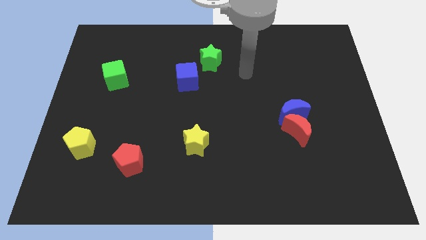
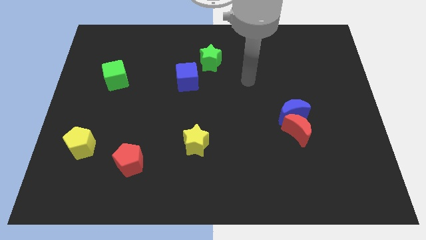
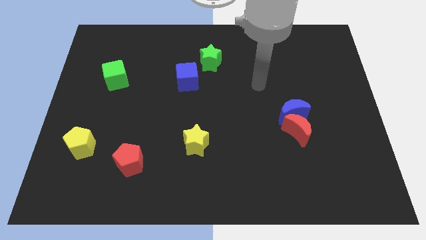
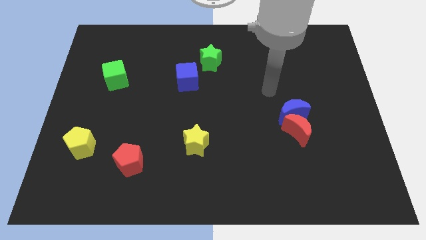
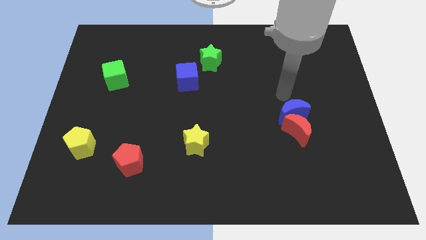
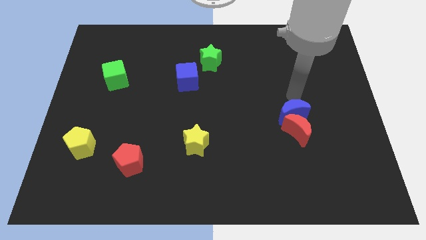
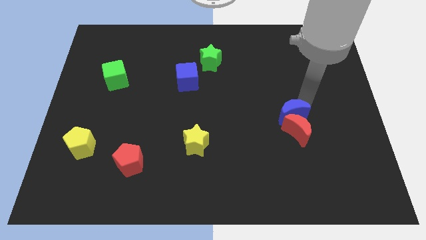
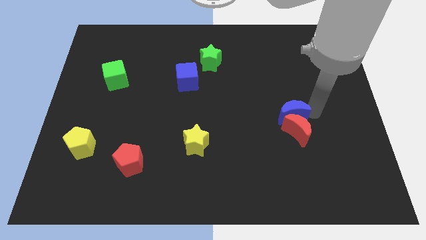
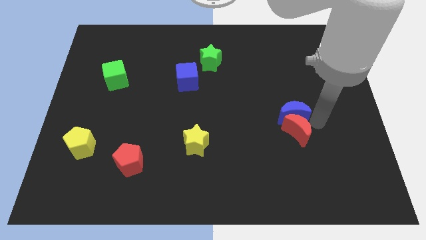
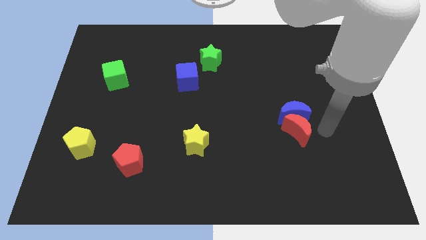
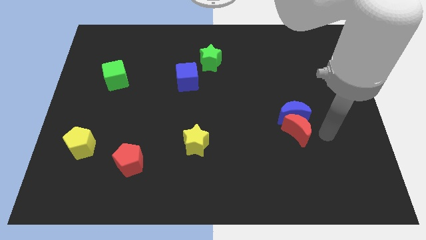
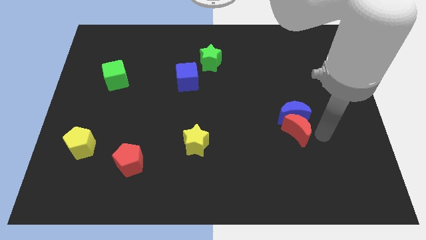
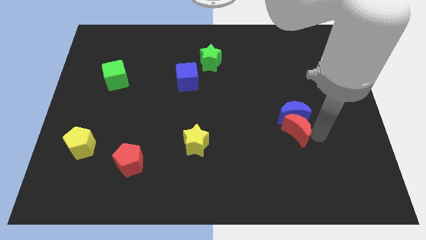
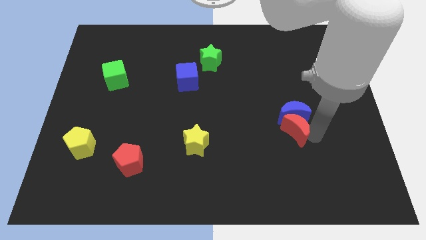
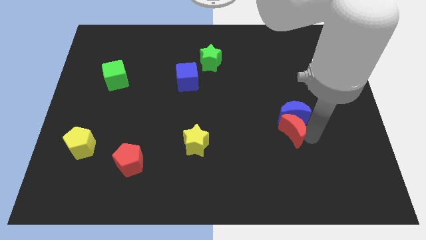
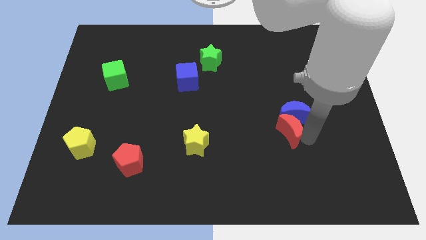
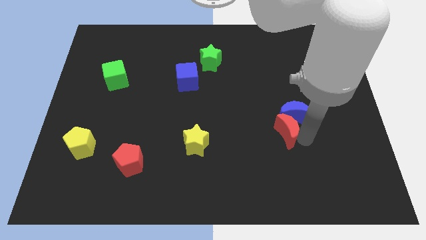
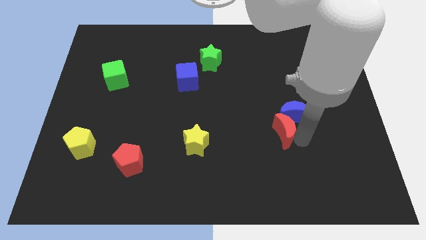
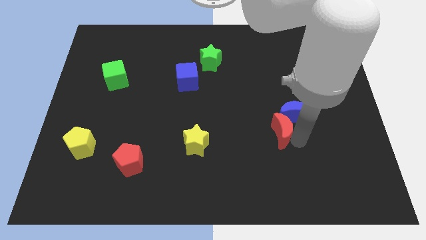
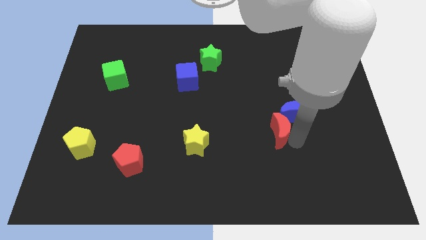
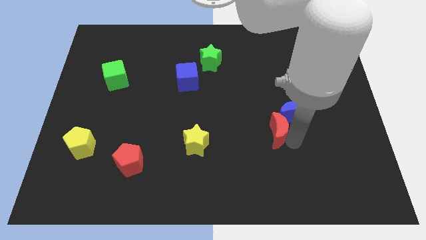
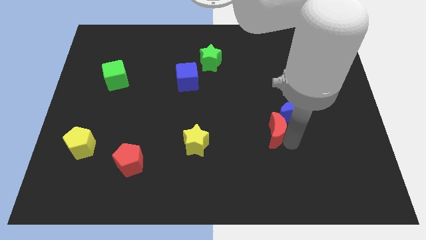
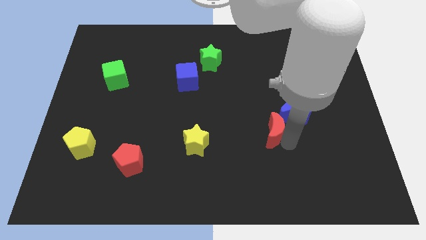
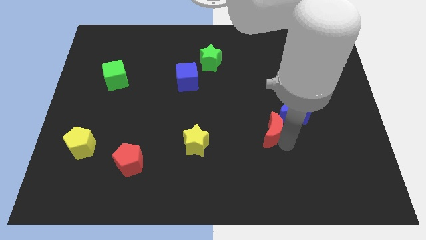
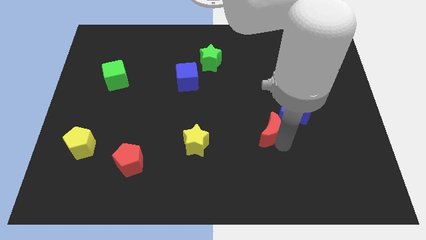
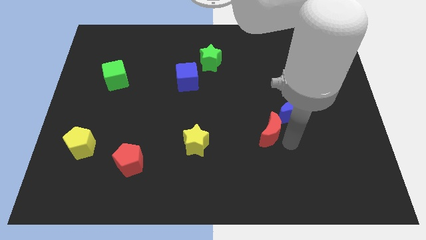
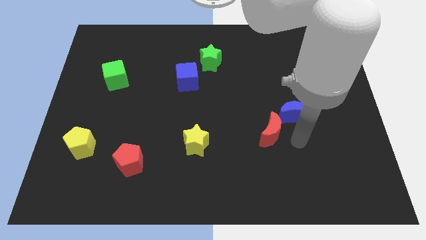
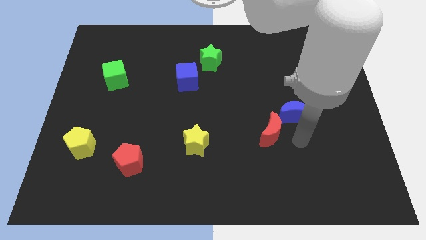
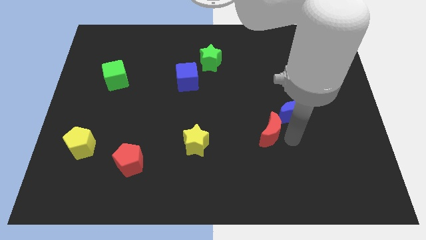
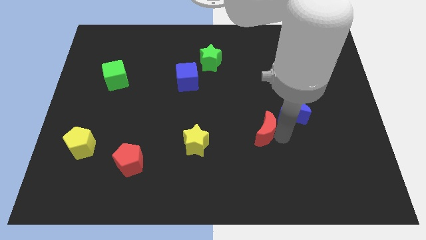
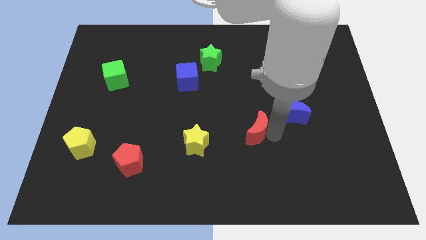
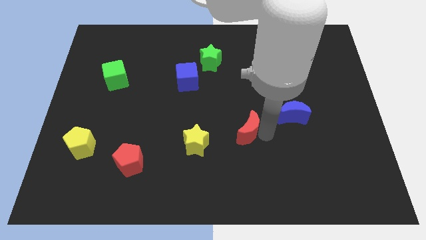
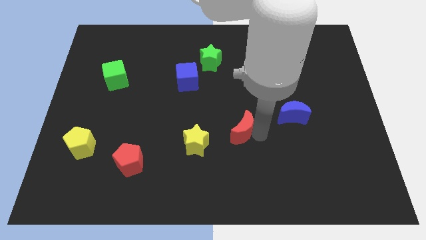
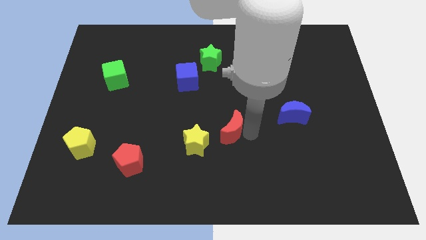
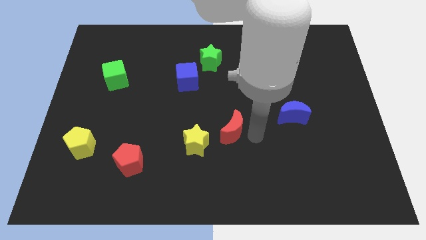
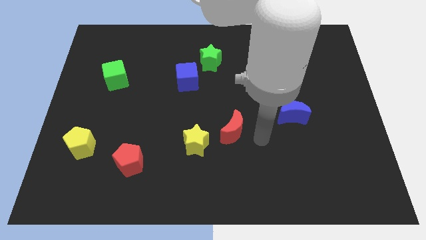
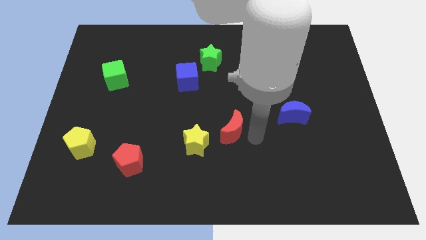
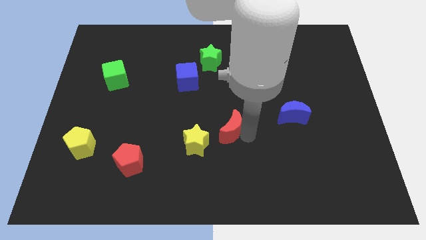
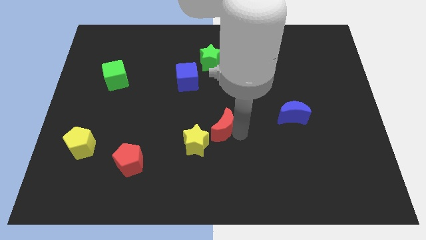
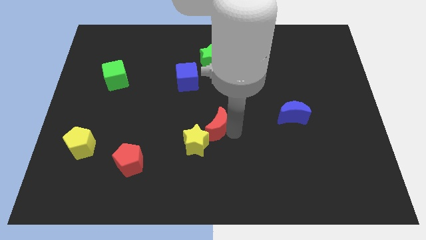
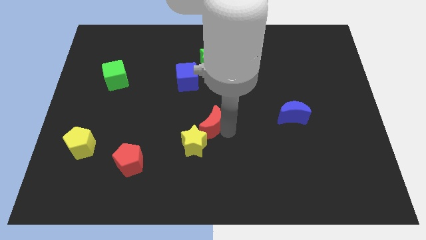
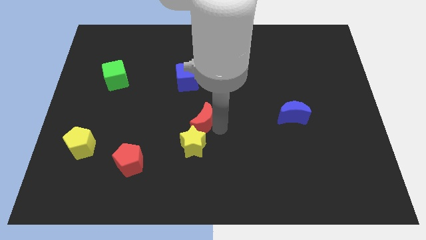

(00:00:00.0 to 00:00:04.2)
move the red moon to the left

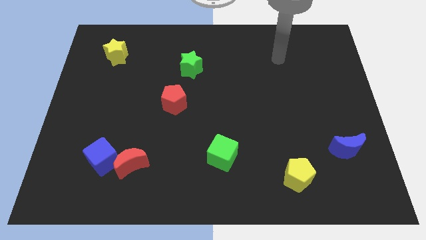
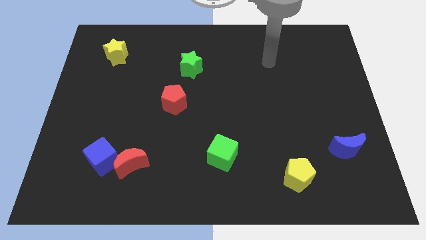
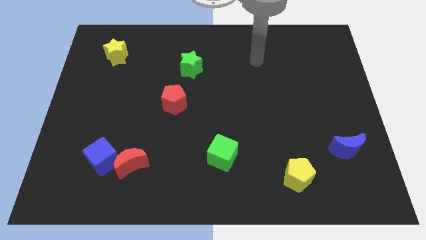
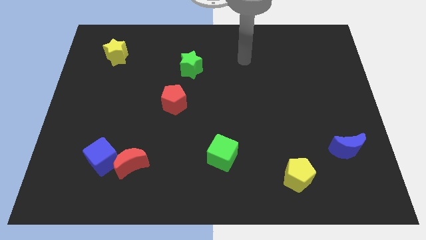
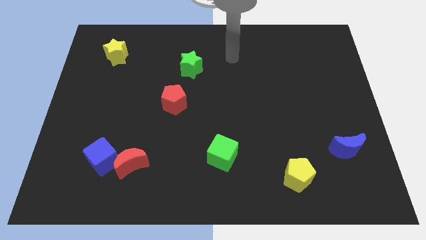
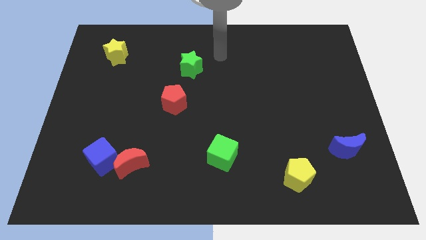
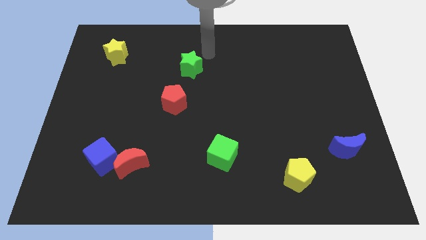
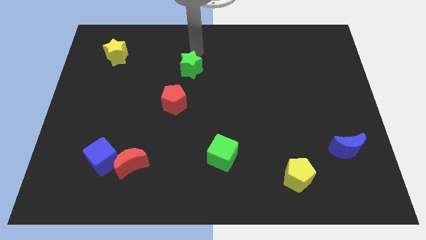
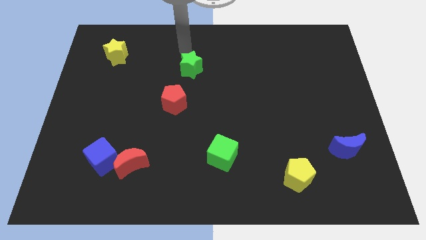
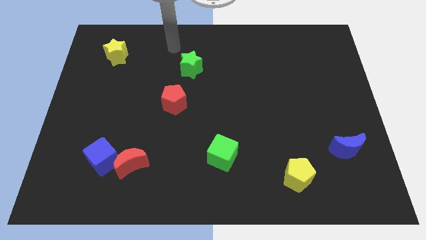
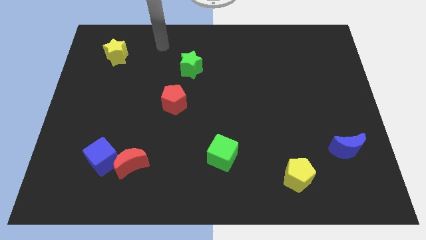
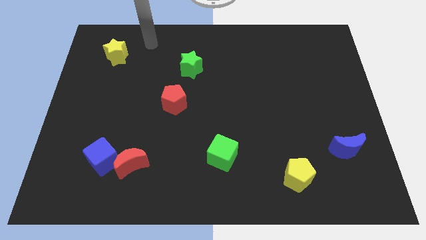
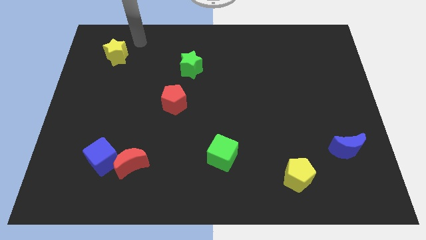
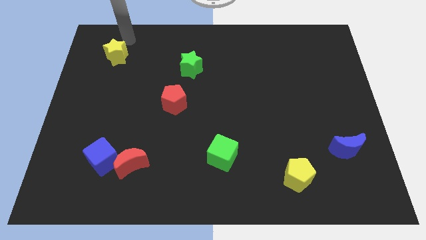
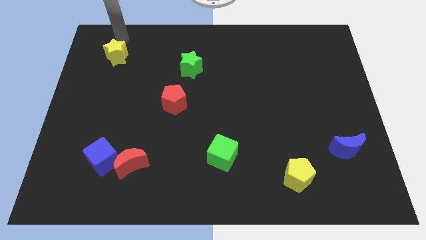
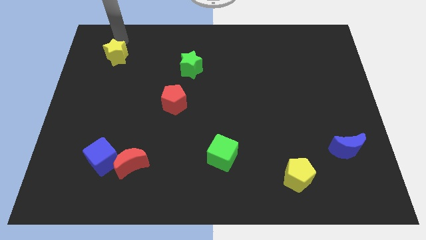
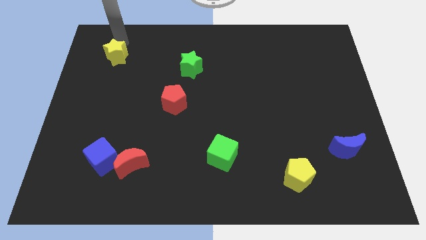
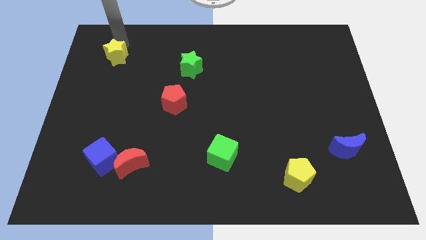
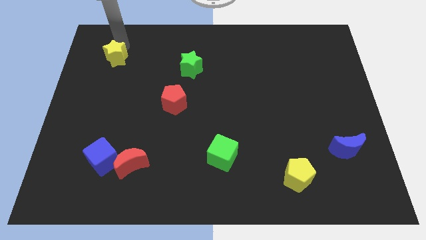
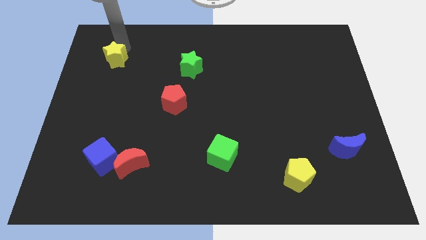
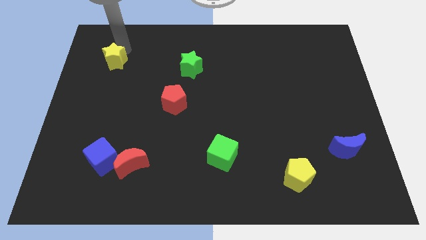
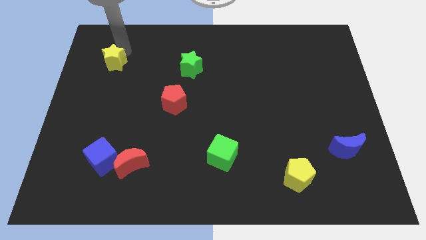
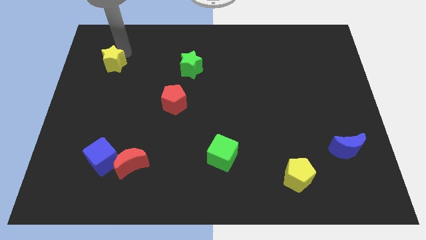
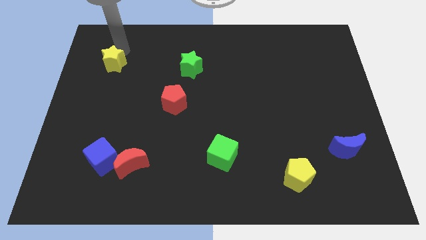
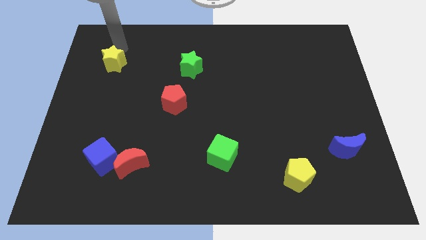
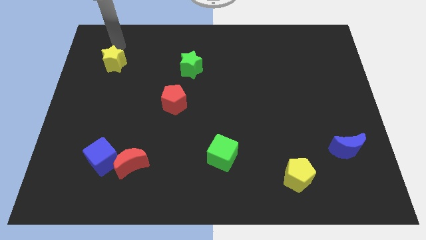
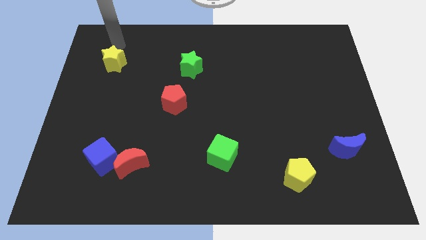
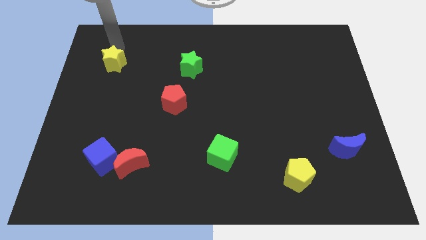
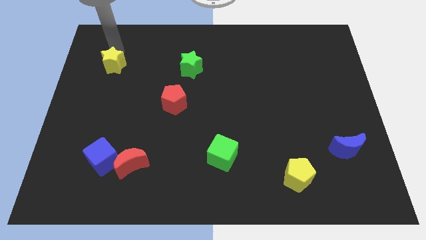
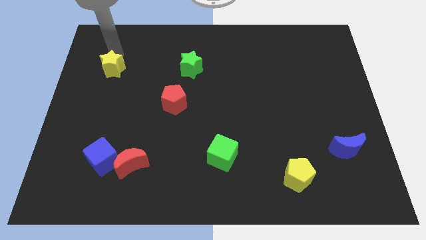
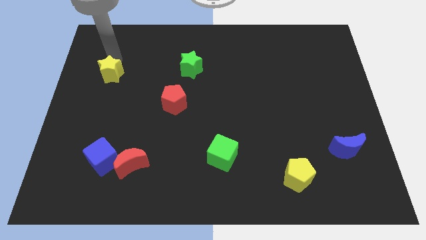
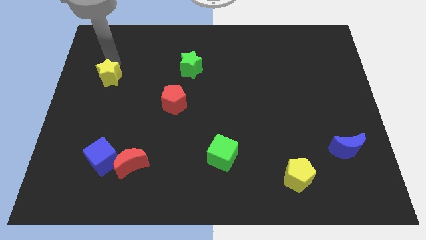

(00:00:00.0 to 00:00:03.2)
slide the yellow star downwards somewhat

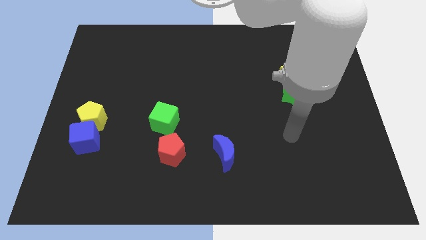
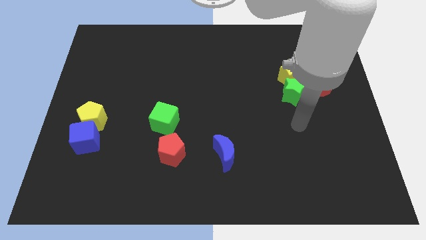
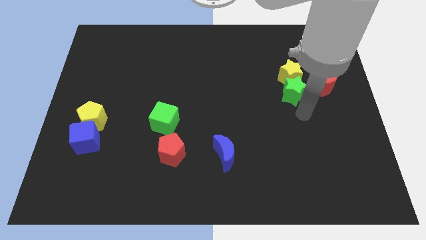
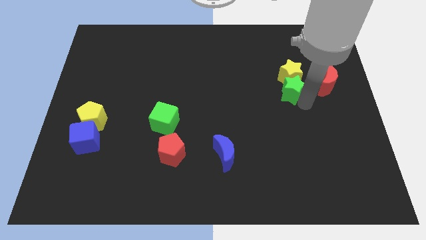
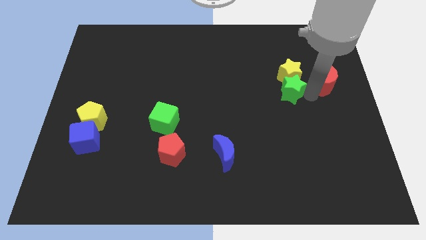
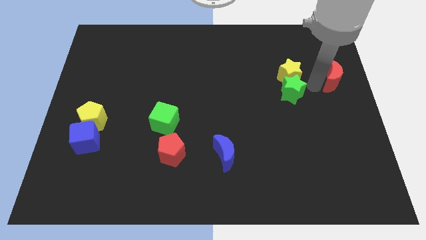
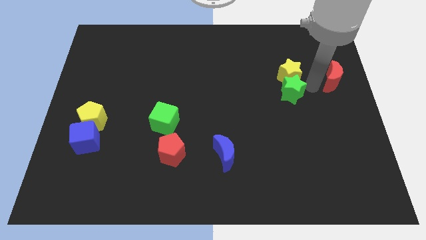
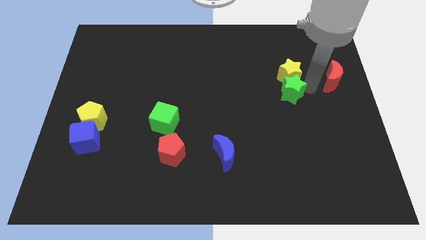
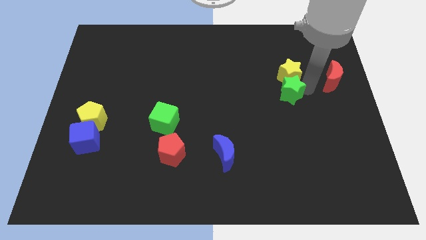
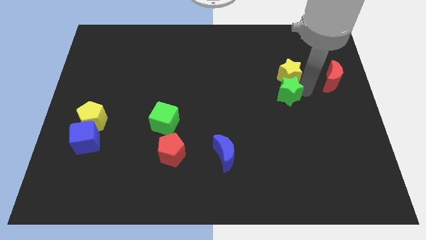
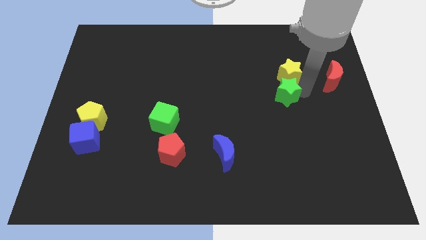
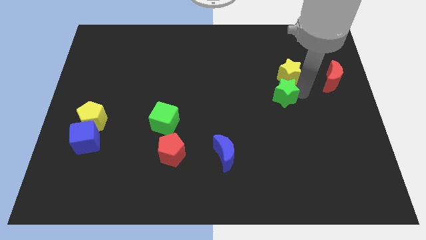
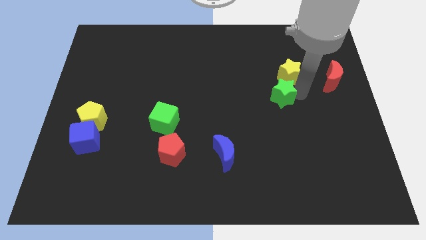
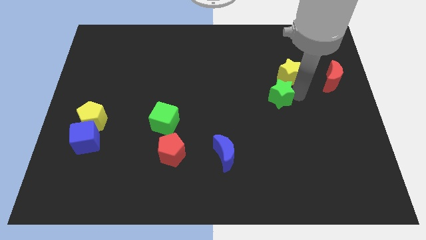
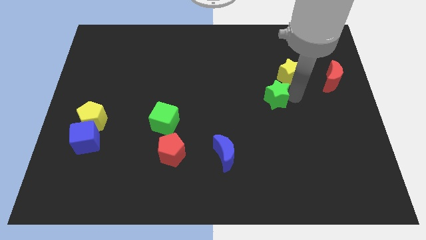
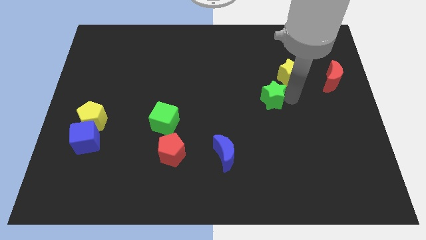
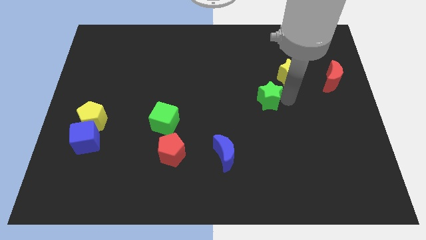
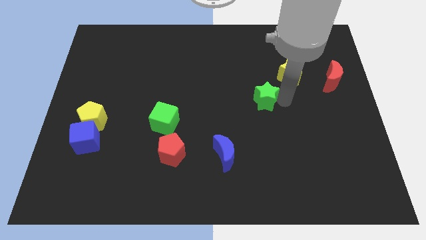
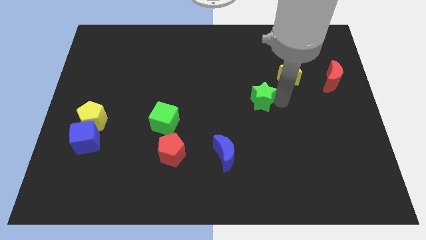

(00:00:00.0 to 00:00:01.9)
slightly push the green star left
